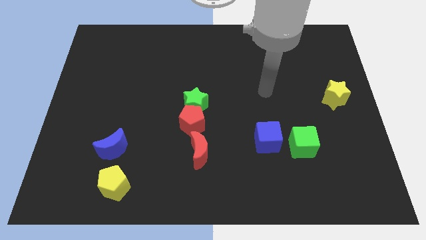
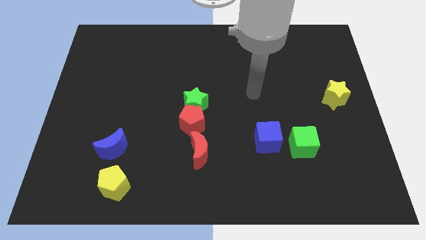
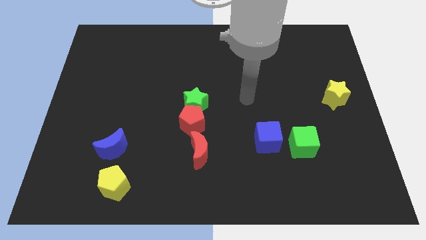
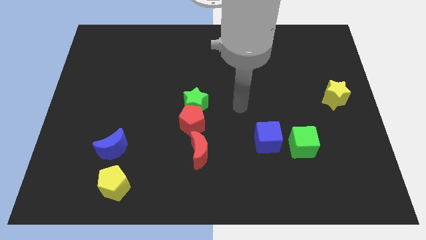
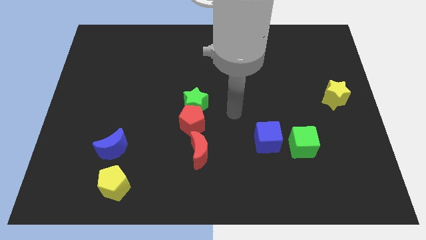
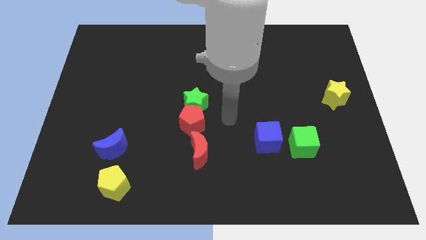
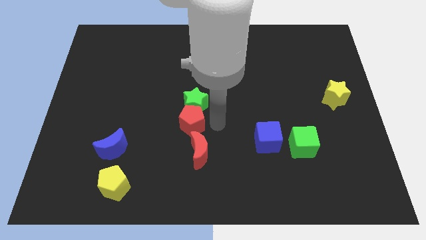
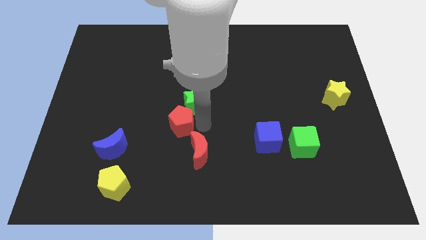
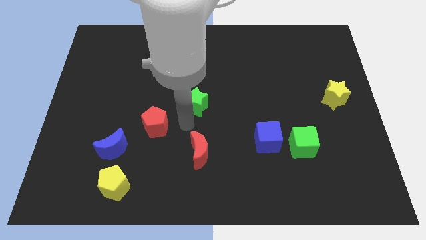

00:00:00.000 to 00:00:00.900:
separate the green star from the red pentagon

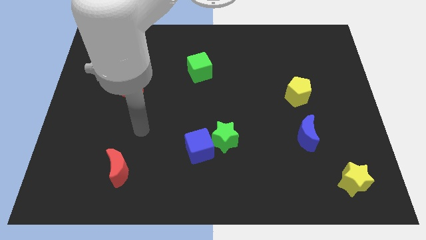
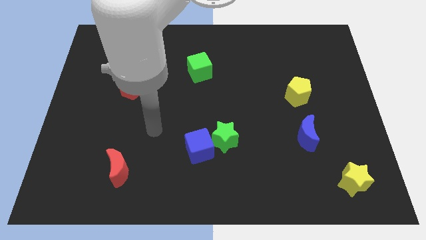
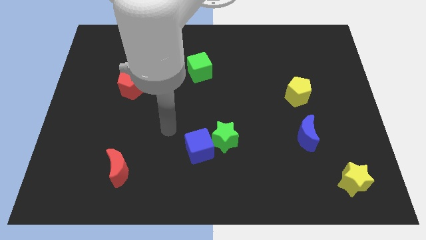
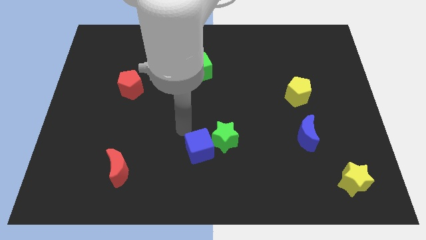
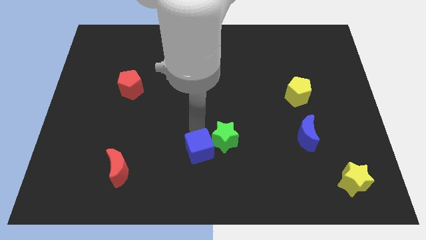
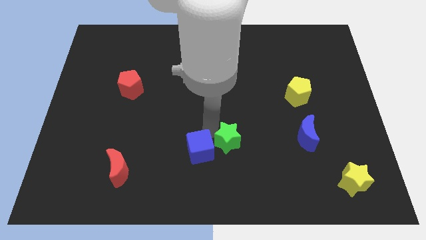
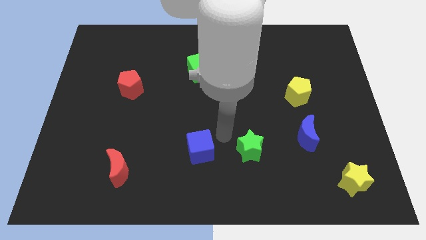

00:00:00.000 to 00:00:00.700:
separate the blue cube from the green star

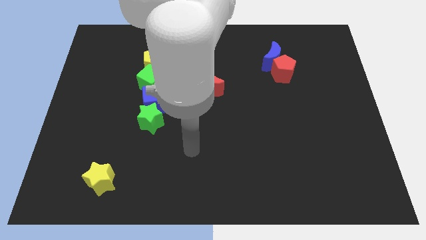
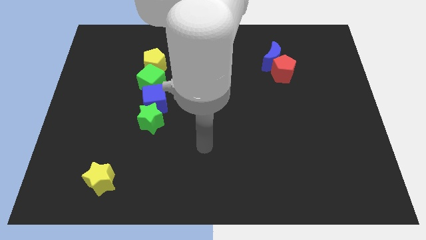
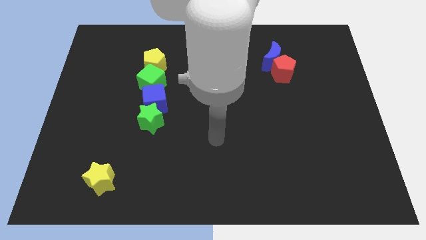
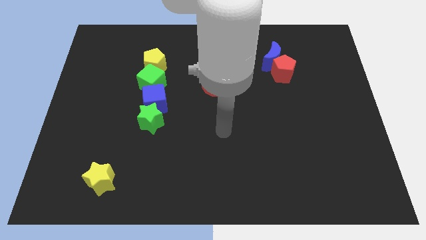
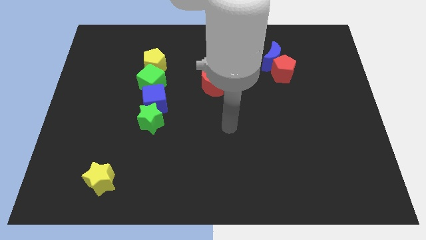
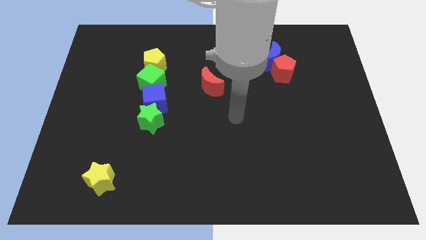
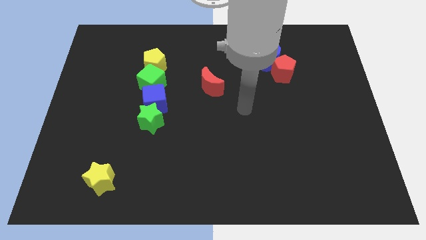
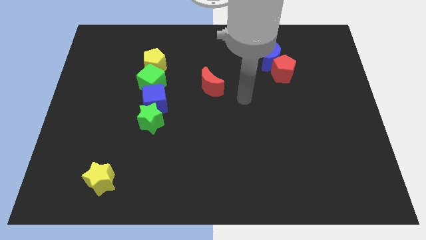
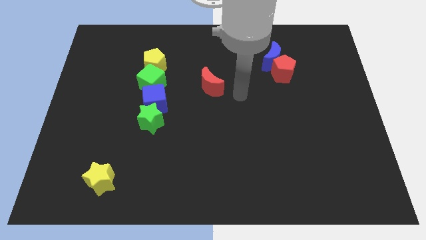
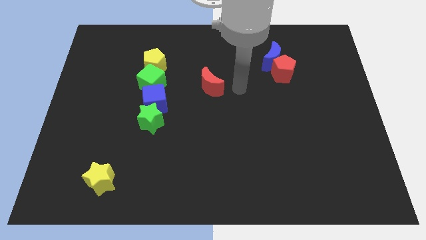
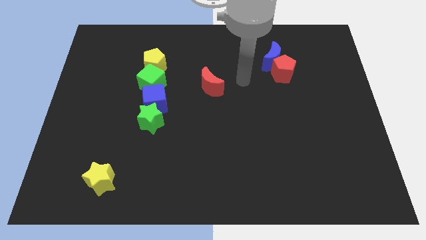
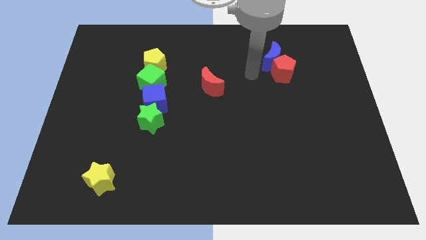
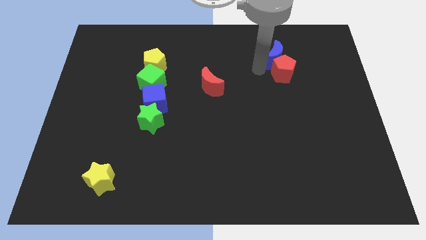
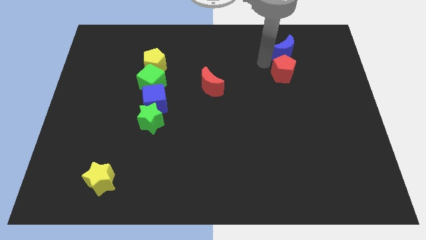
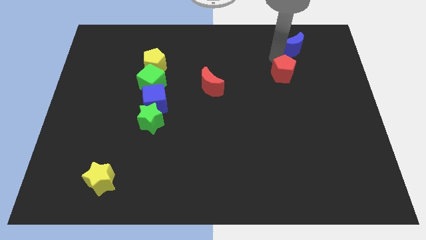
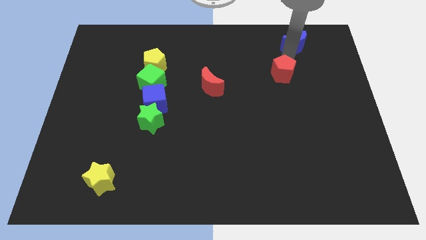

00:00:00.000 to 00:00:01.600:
separate the red pentagon from the blue moon

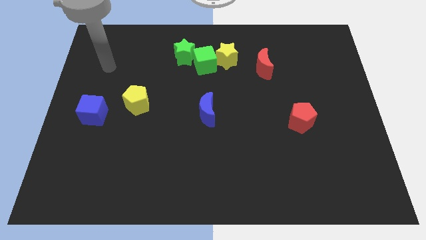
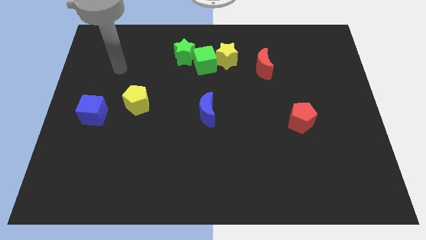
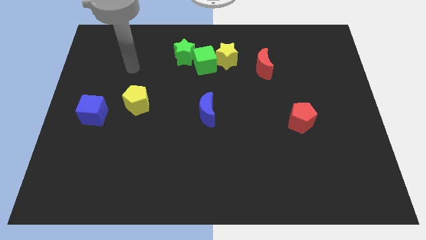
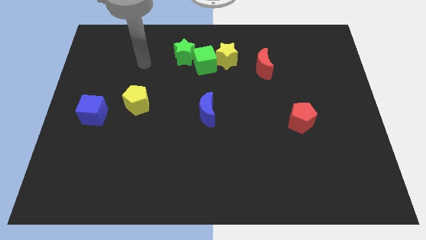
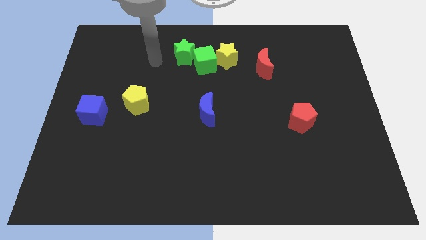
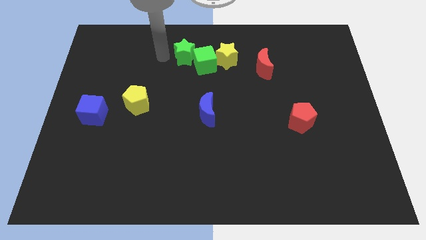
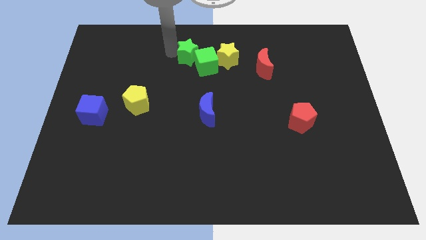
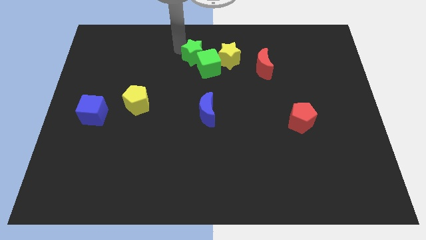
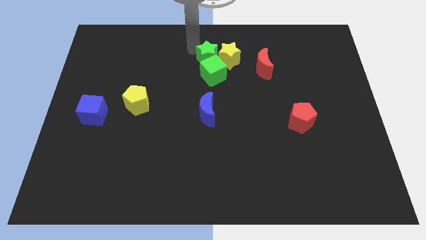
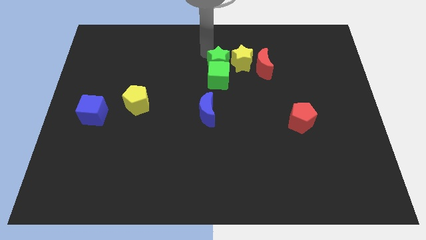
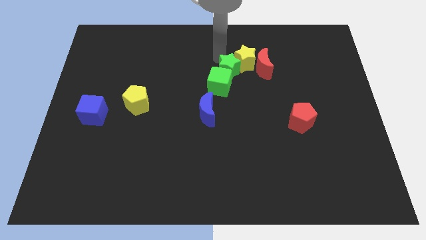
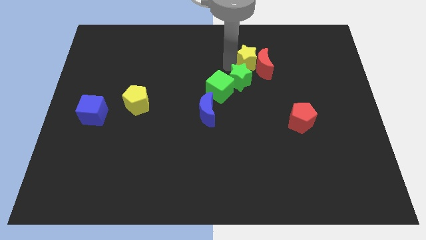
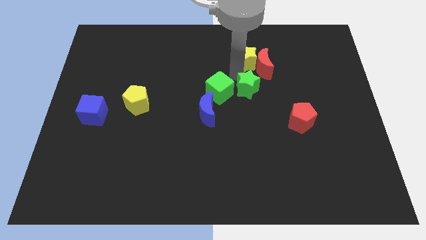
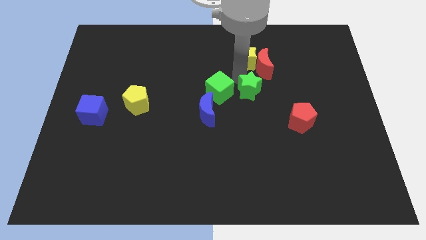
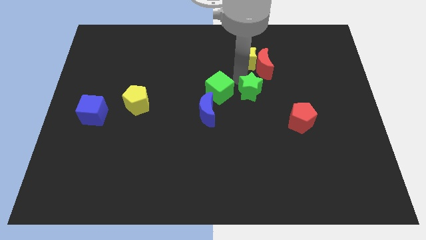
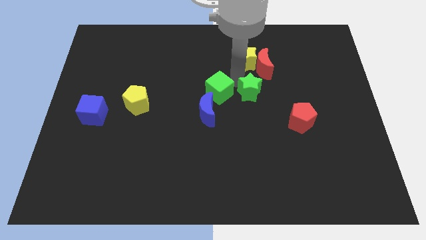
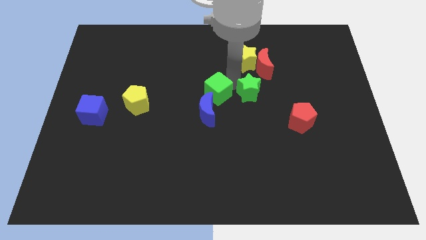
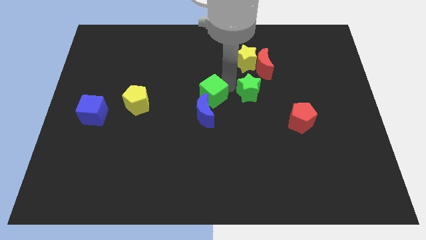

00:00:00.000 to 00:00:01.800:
pull the green cube apart from the yellow star and green star

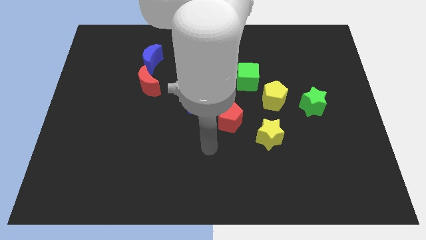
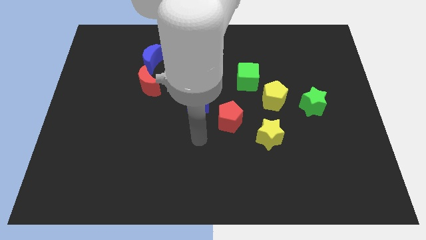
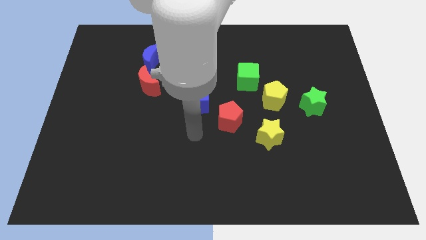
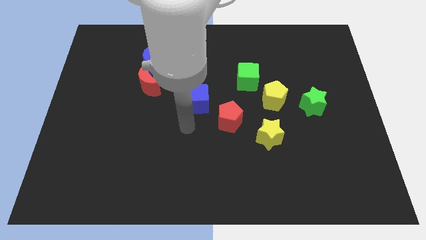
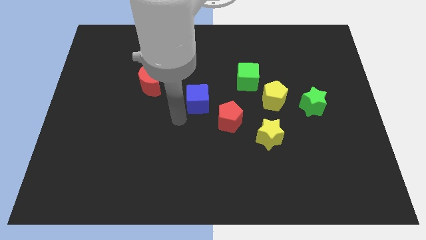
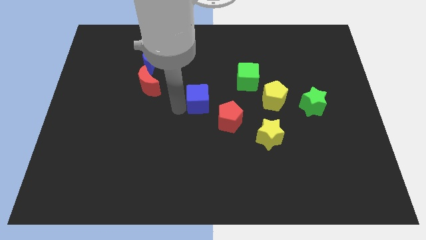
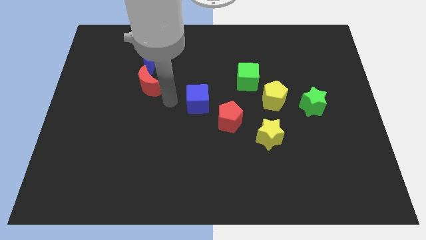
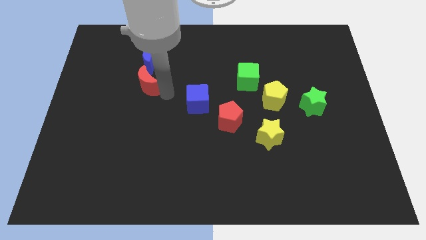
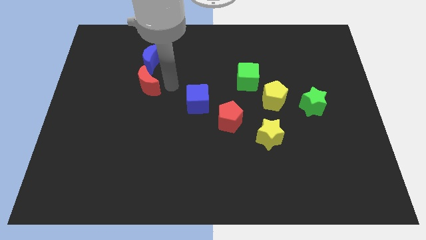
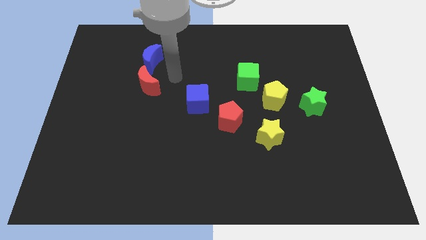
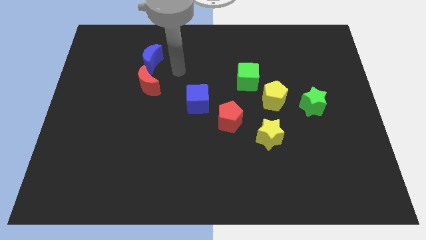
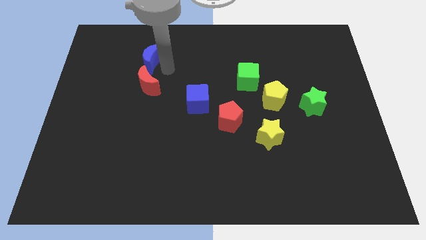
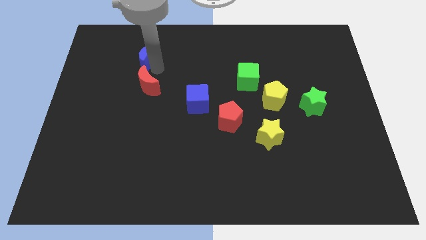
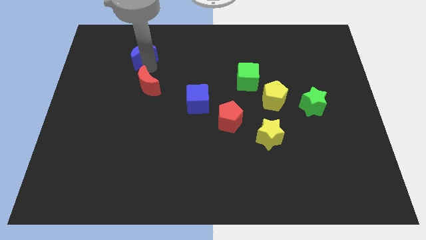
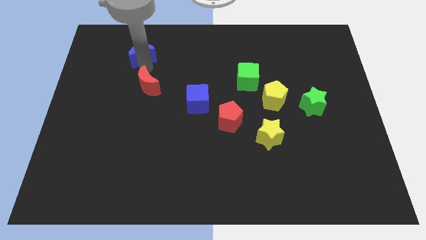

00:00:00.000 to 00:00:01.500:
separate the red moon from the blue moon

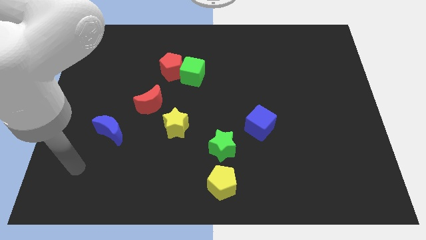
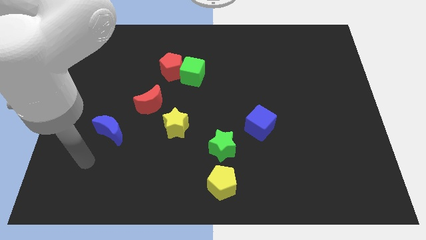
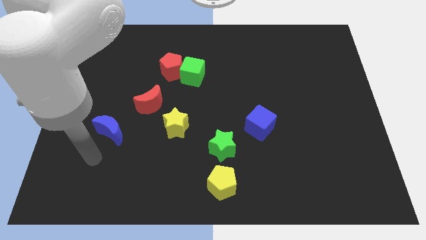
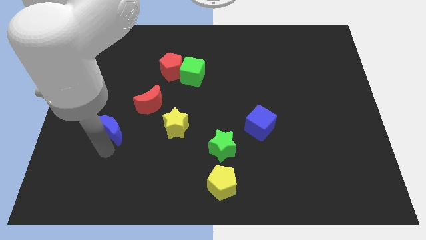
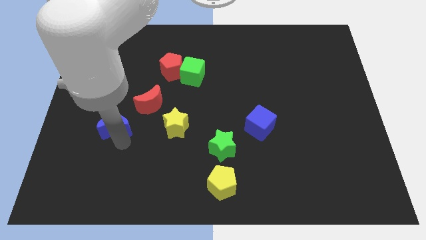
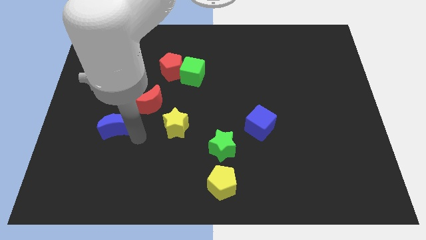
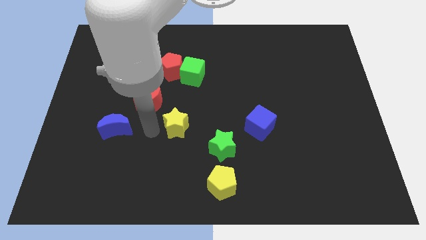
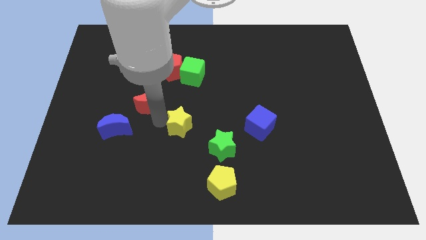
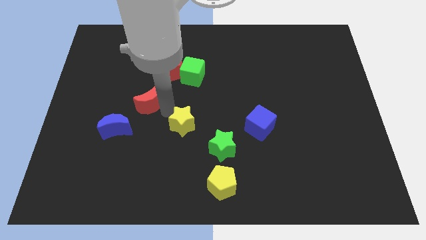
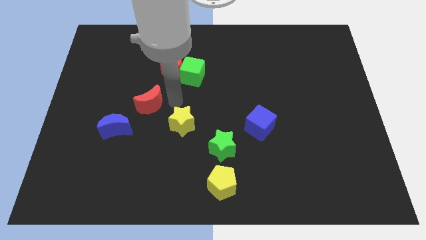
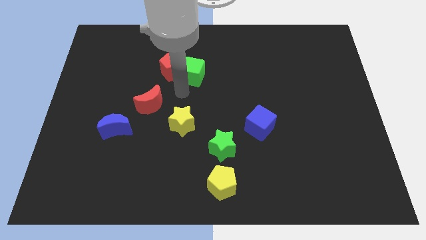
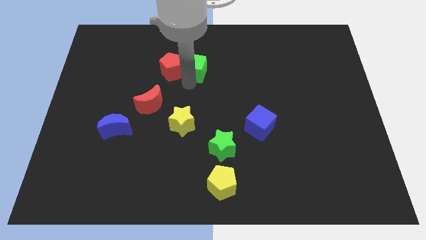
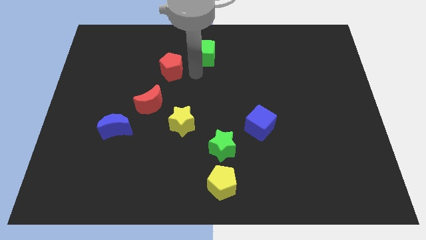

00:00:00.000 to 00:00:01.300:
pull the red pentagon apart from the green cube

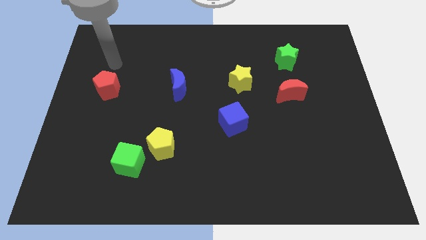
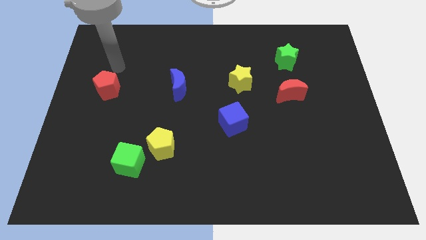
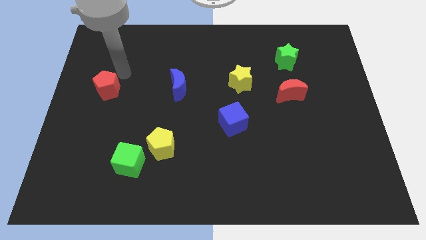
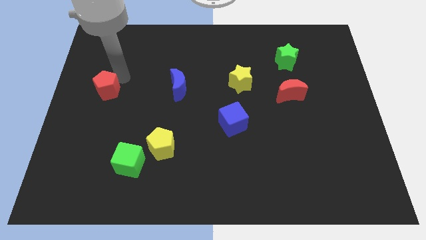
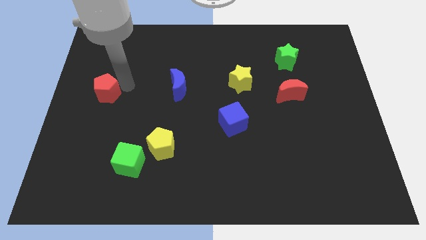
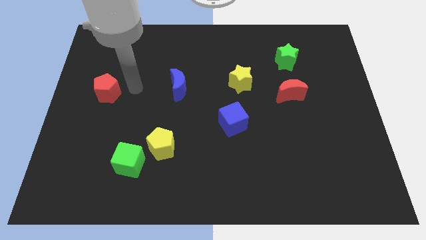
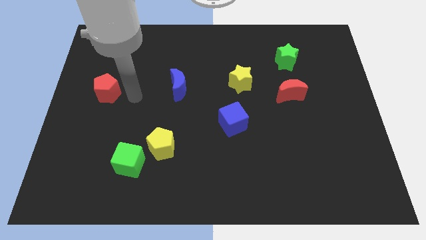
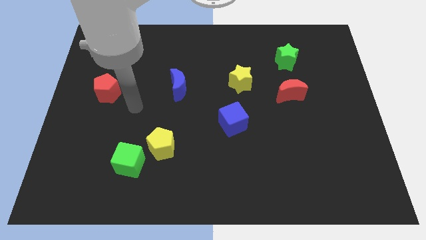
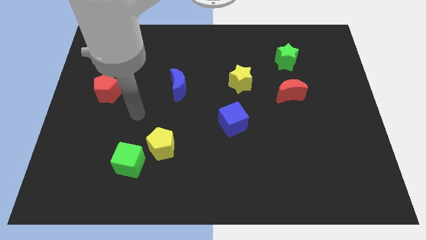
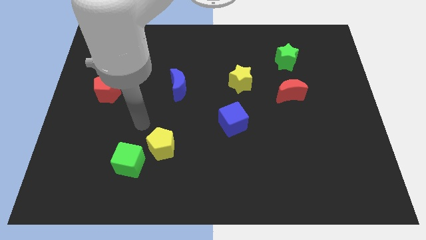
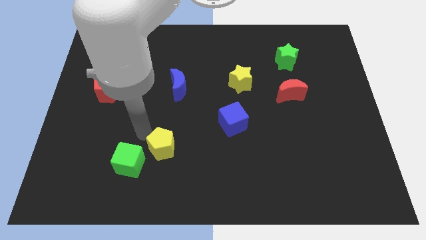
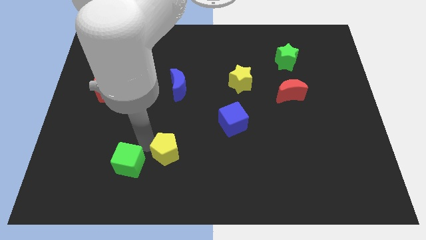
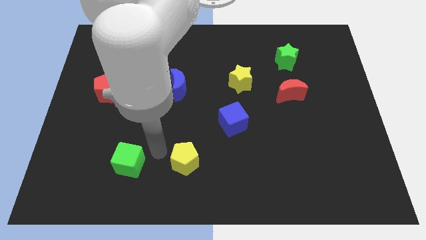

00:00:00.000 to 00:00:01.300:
separate the green cube from the yellow pentagon

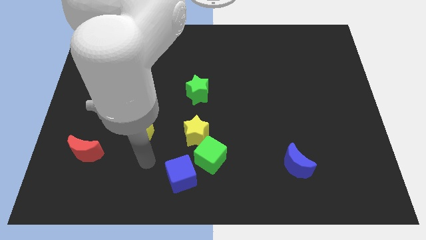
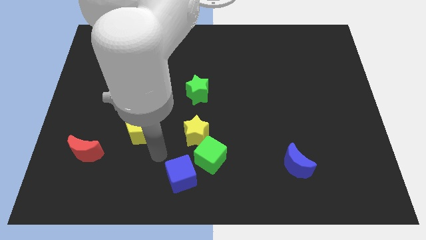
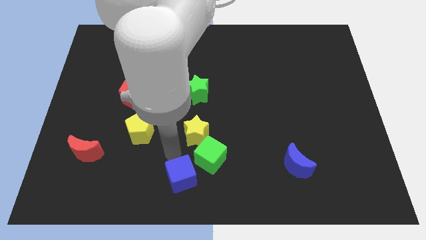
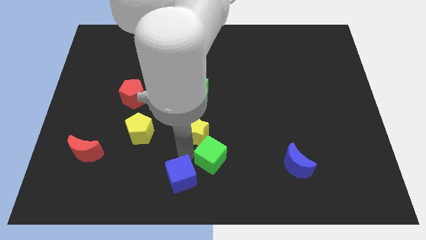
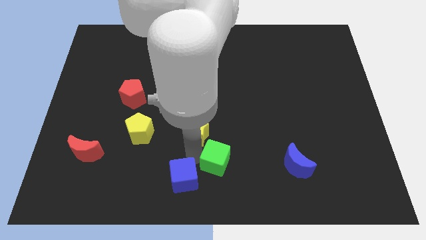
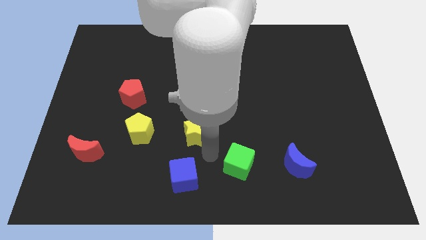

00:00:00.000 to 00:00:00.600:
pull the yellow star apart from the green cube
